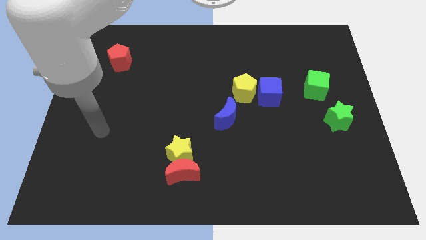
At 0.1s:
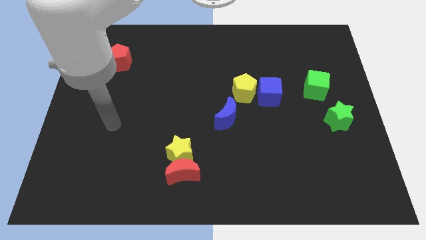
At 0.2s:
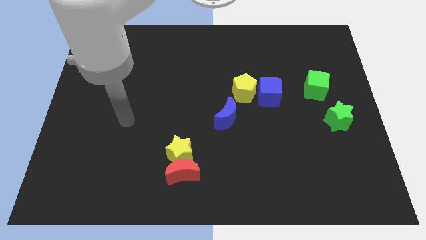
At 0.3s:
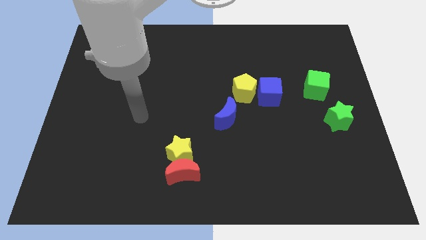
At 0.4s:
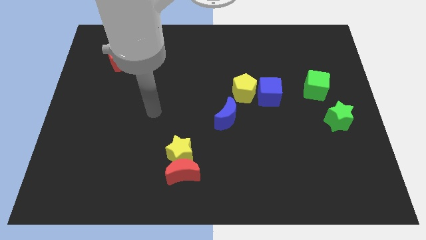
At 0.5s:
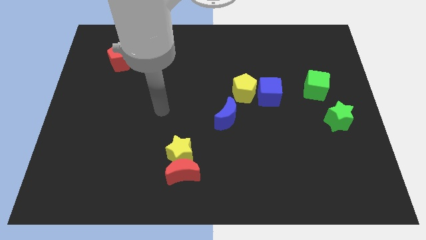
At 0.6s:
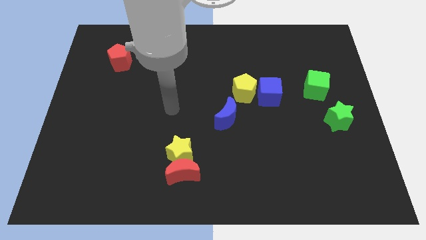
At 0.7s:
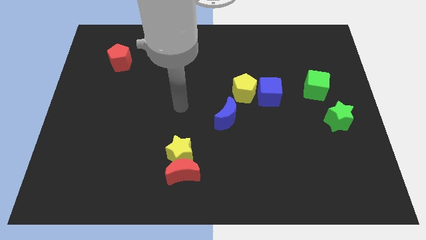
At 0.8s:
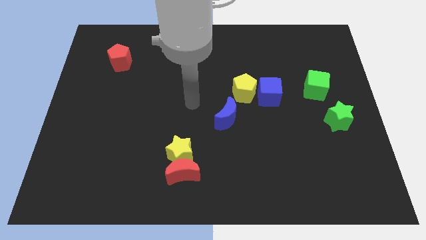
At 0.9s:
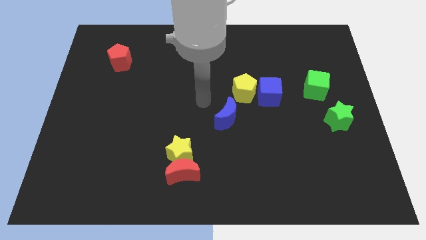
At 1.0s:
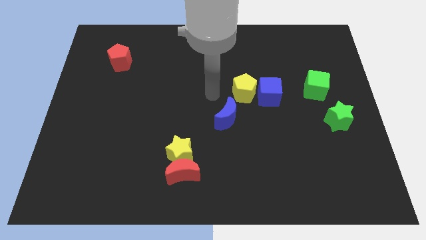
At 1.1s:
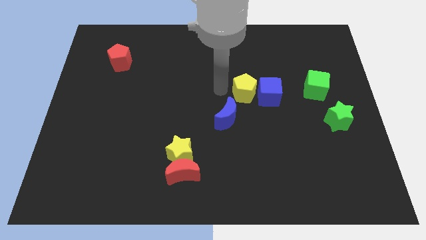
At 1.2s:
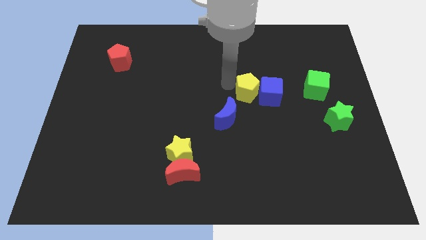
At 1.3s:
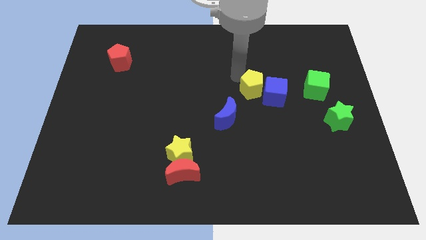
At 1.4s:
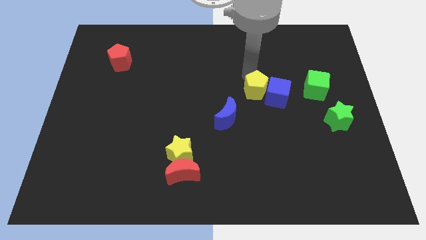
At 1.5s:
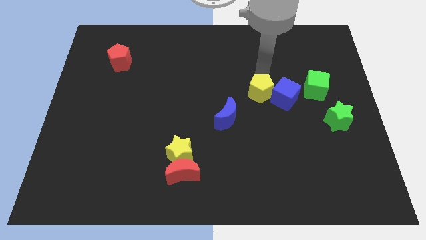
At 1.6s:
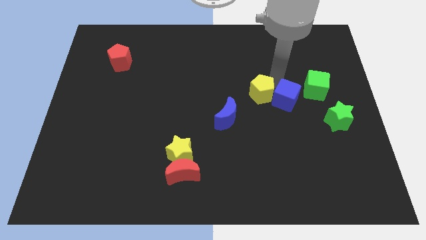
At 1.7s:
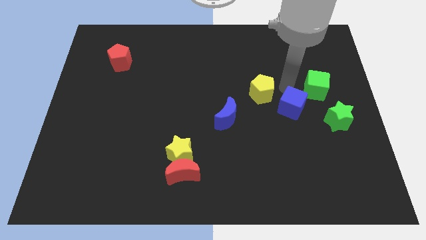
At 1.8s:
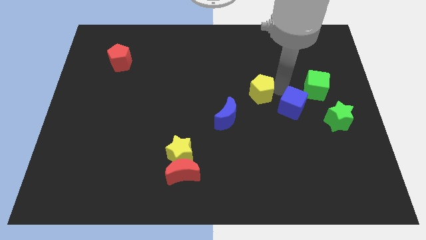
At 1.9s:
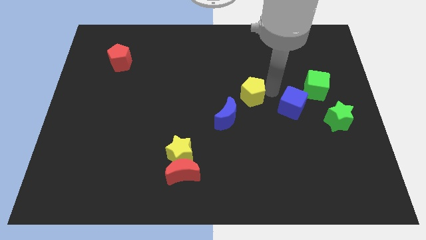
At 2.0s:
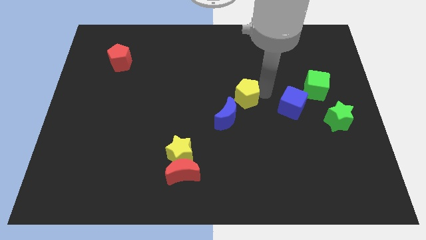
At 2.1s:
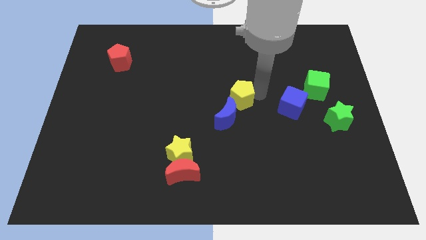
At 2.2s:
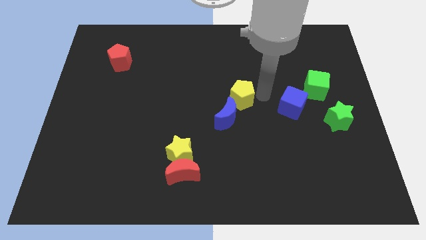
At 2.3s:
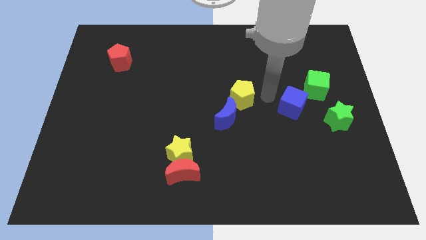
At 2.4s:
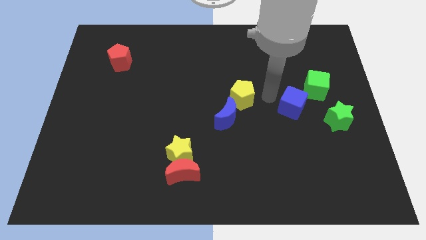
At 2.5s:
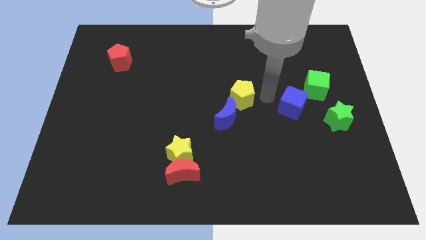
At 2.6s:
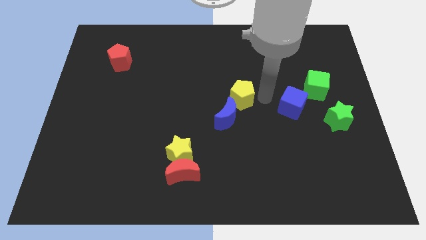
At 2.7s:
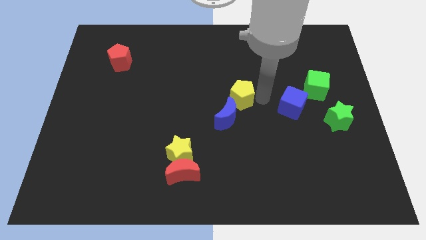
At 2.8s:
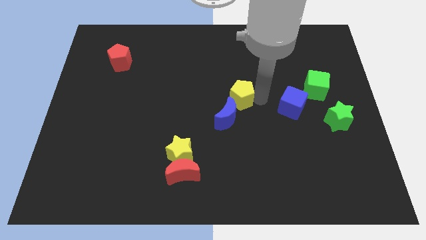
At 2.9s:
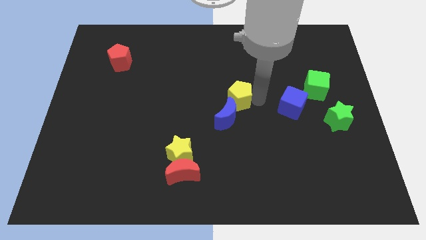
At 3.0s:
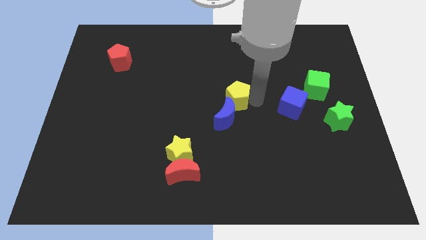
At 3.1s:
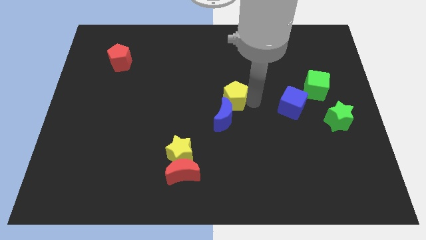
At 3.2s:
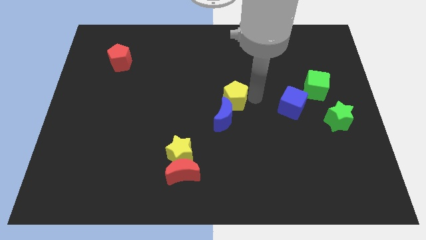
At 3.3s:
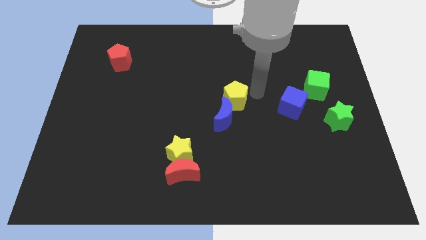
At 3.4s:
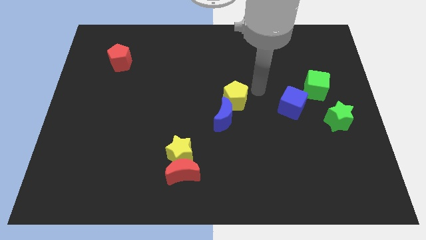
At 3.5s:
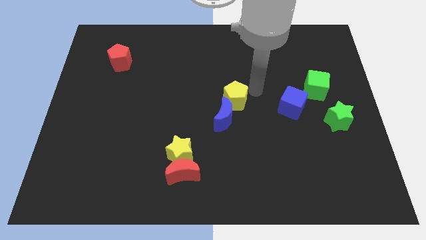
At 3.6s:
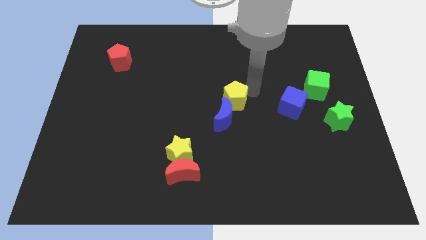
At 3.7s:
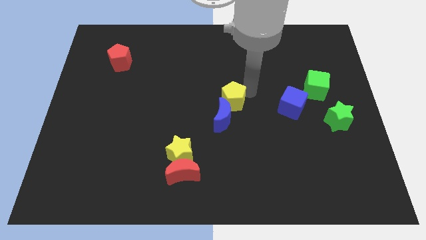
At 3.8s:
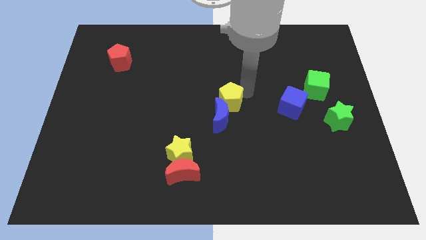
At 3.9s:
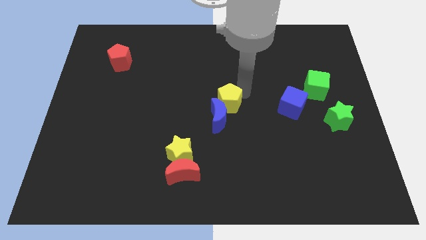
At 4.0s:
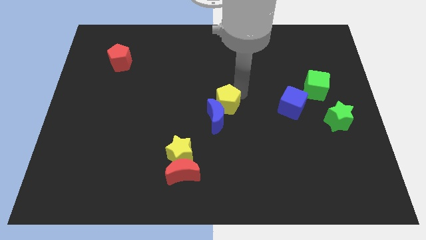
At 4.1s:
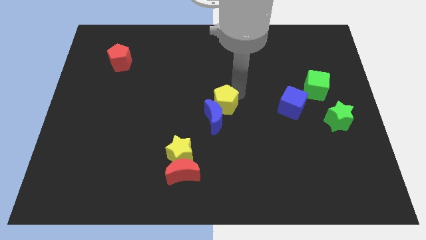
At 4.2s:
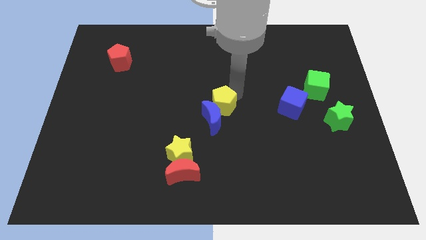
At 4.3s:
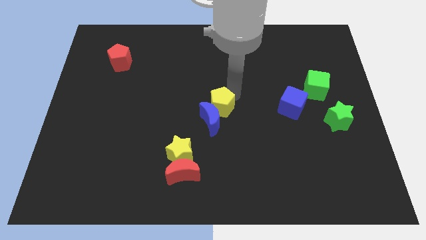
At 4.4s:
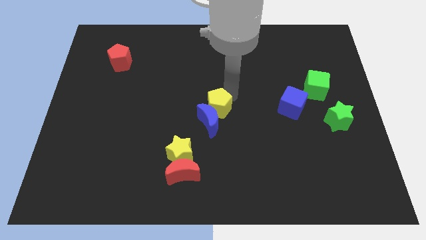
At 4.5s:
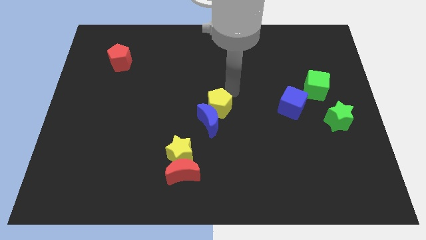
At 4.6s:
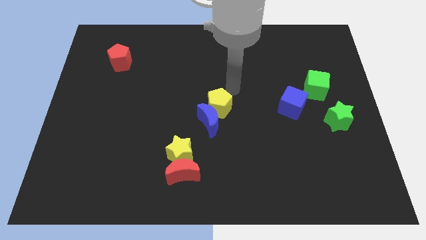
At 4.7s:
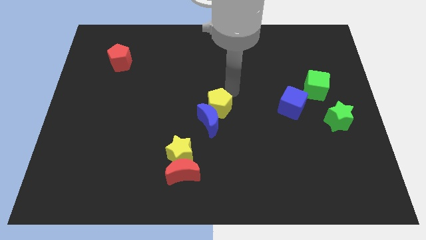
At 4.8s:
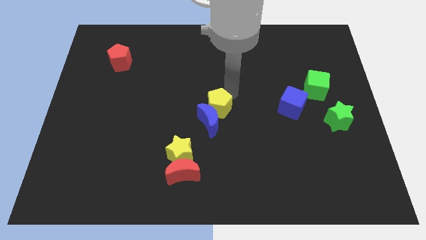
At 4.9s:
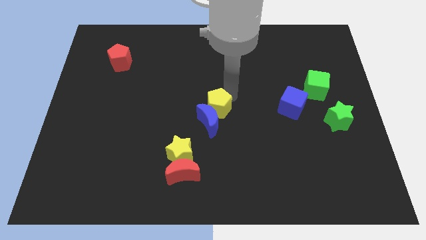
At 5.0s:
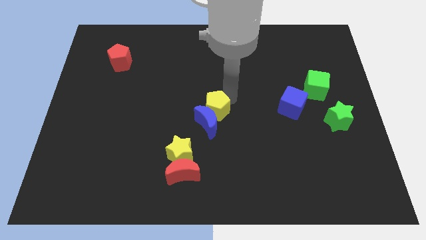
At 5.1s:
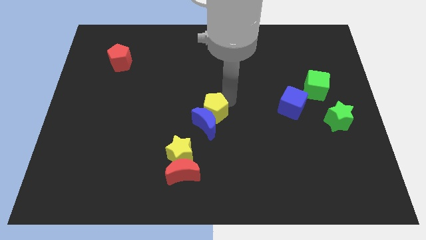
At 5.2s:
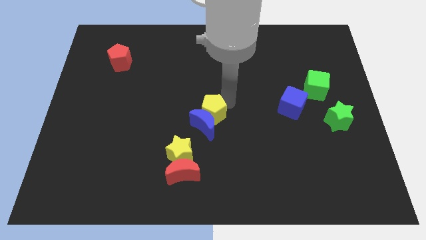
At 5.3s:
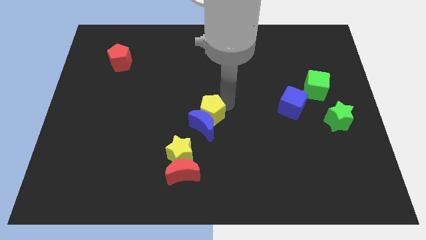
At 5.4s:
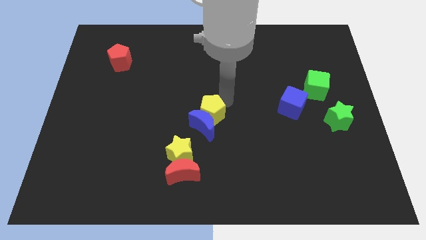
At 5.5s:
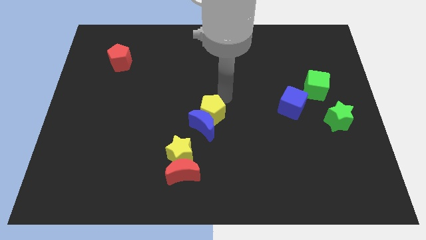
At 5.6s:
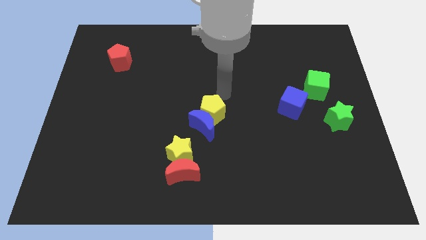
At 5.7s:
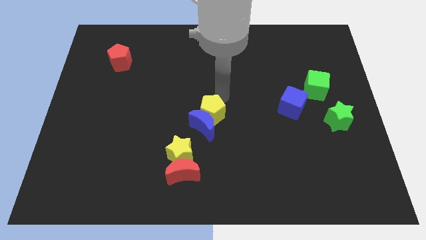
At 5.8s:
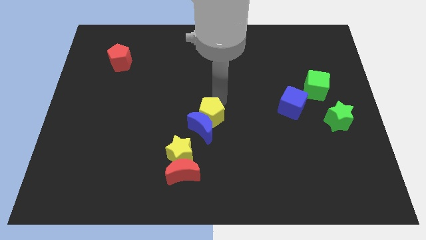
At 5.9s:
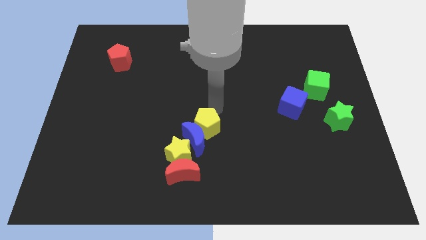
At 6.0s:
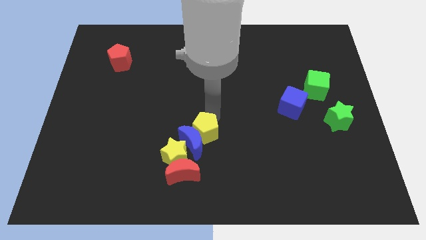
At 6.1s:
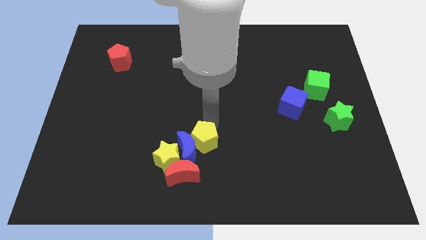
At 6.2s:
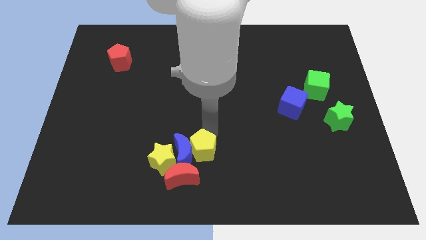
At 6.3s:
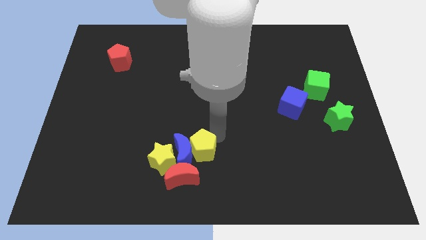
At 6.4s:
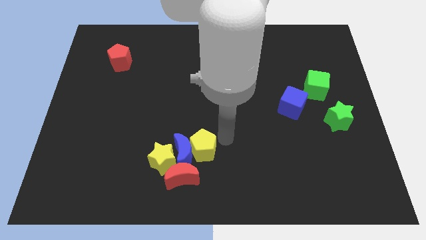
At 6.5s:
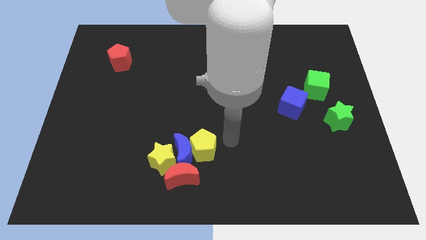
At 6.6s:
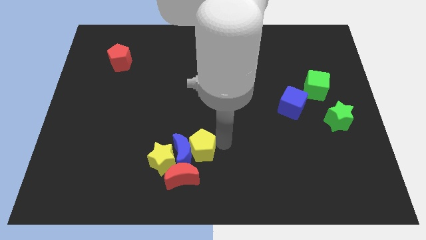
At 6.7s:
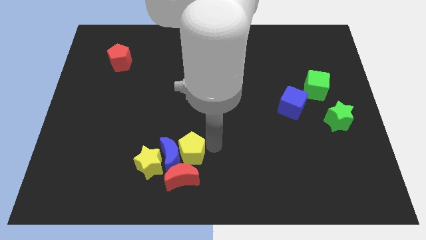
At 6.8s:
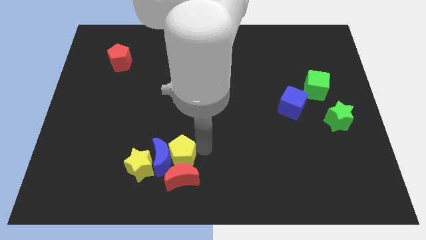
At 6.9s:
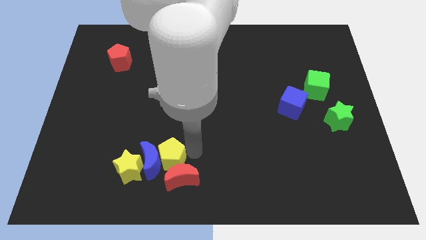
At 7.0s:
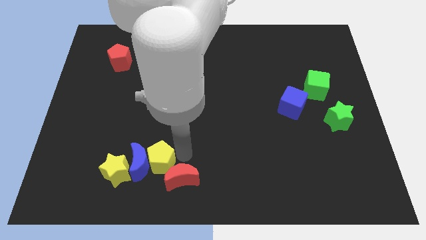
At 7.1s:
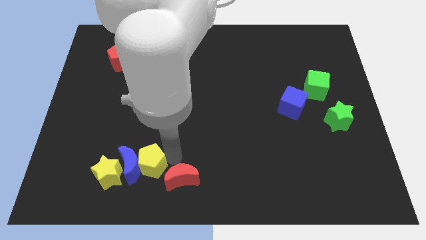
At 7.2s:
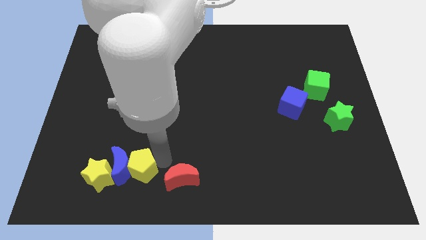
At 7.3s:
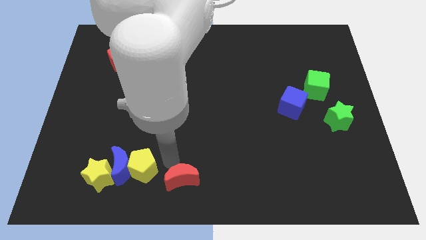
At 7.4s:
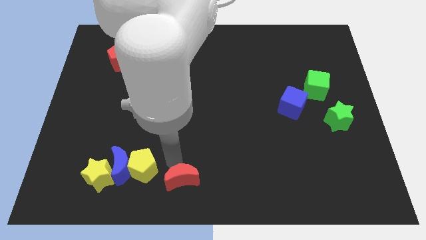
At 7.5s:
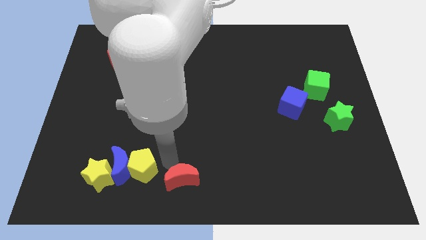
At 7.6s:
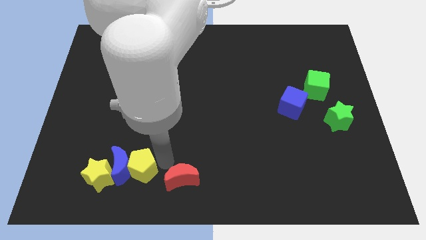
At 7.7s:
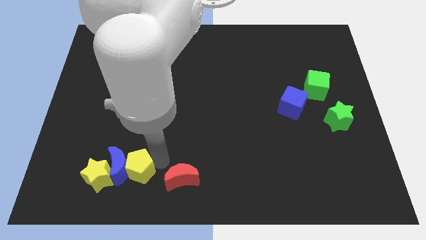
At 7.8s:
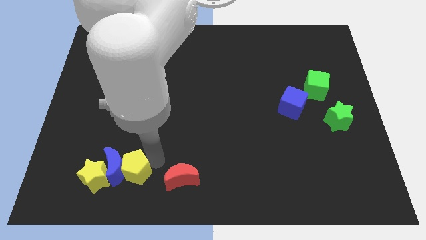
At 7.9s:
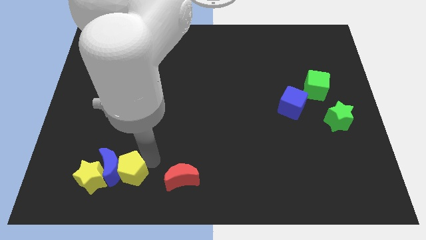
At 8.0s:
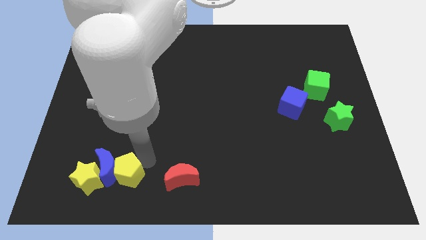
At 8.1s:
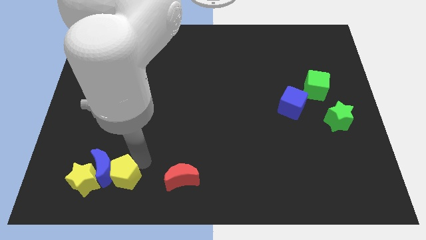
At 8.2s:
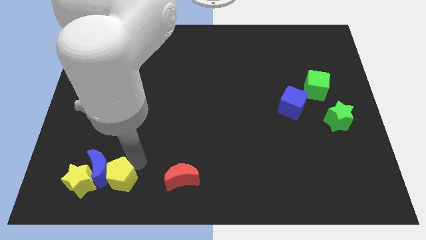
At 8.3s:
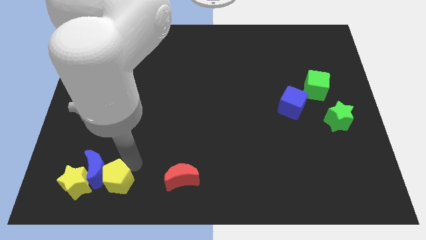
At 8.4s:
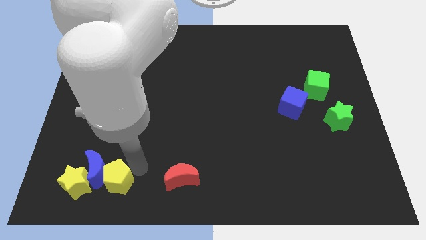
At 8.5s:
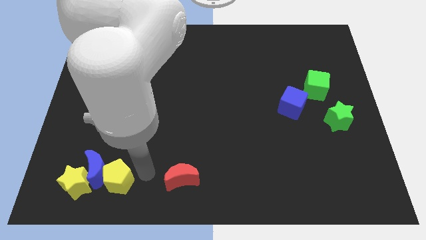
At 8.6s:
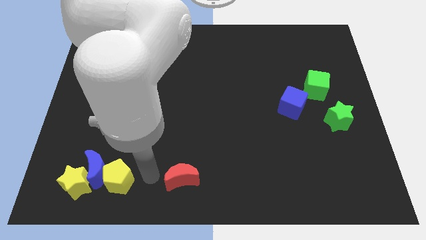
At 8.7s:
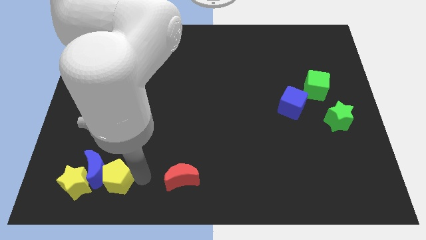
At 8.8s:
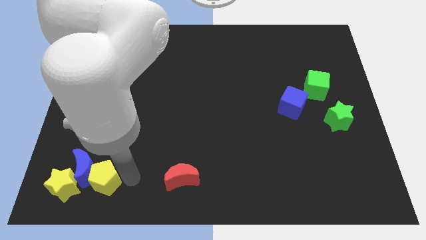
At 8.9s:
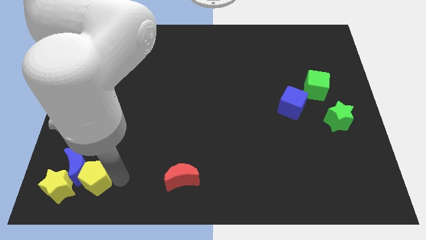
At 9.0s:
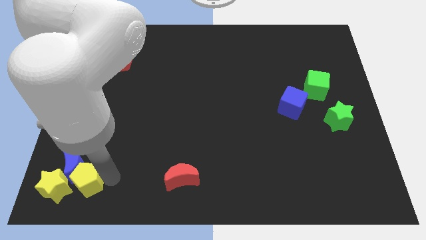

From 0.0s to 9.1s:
move the yellow pentagon next to the yellow star
